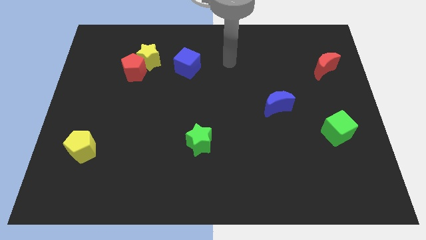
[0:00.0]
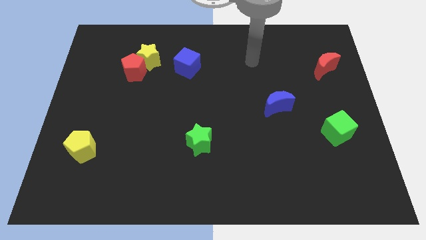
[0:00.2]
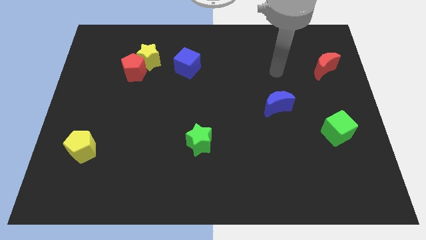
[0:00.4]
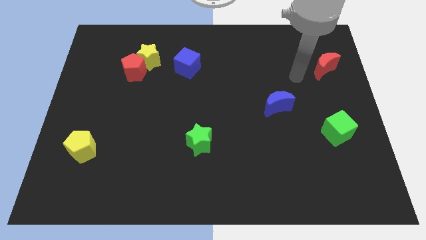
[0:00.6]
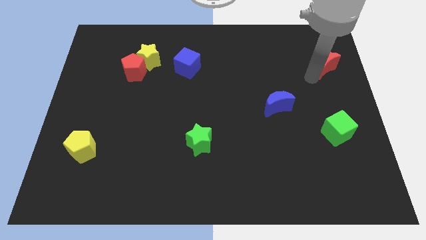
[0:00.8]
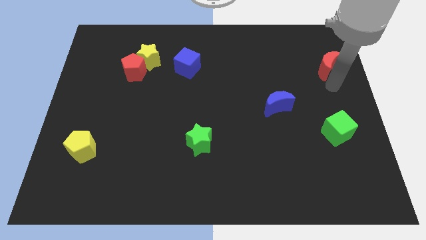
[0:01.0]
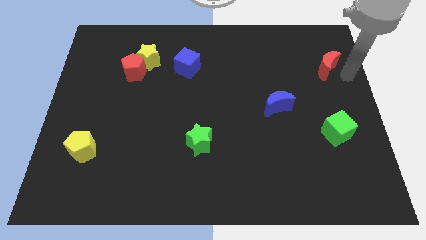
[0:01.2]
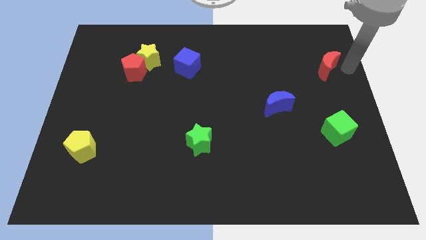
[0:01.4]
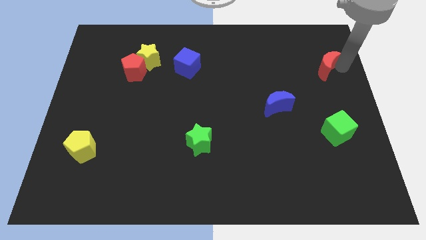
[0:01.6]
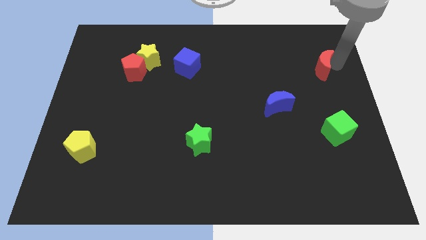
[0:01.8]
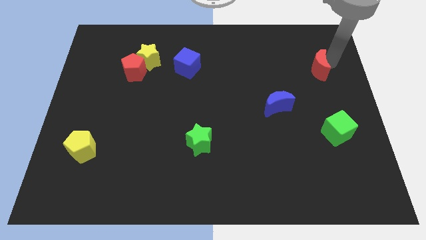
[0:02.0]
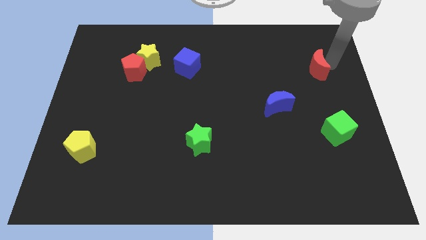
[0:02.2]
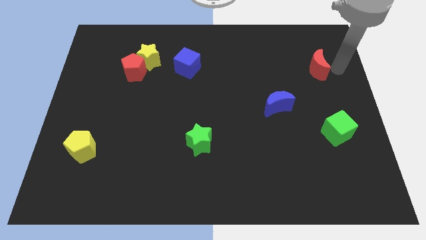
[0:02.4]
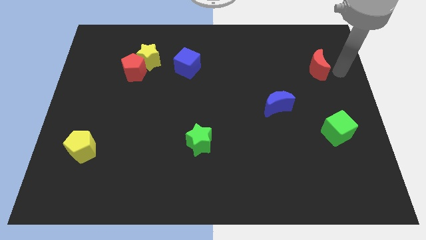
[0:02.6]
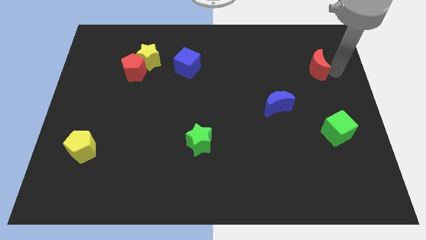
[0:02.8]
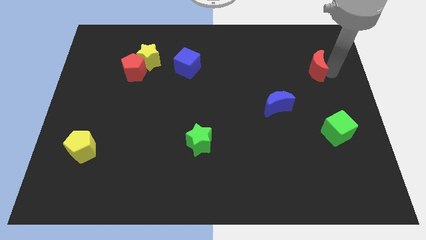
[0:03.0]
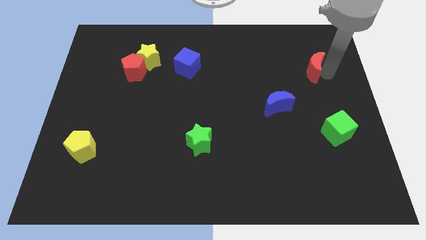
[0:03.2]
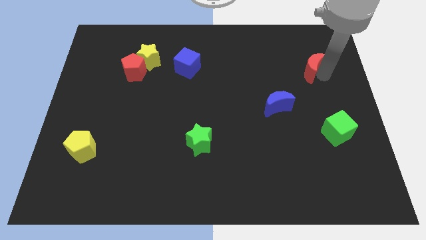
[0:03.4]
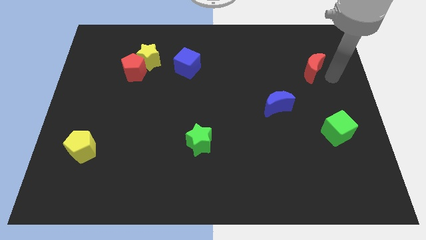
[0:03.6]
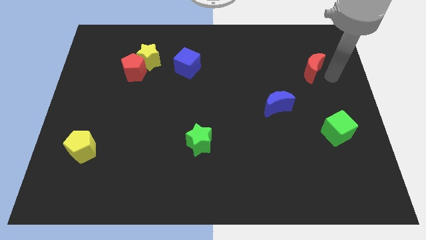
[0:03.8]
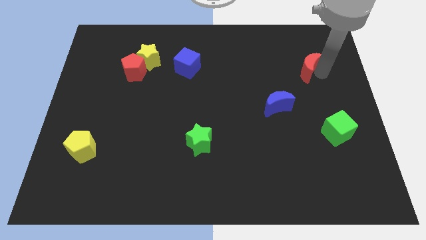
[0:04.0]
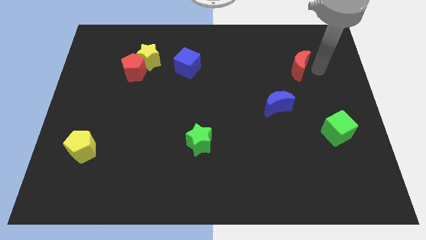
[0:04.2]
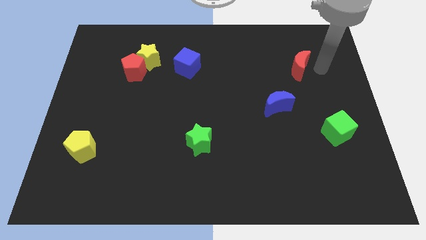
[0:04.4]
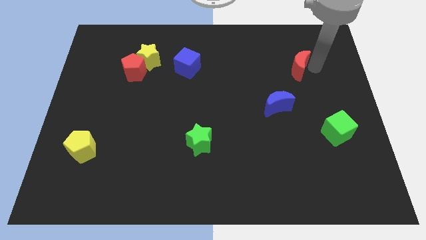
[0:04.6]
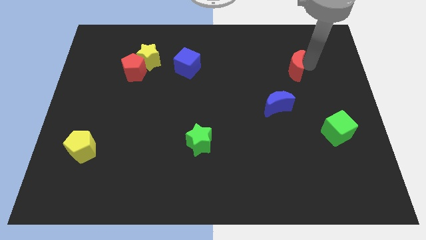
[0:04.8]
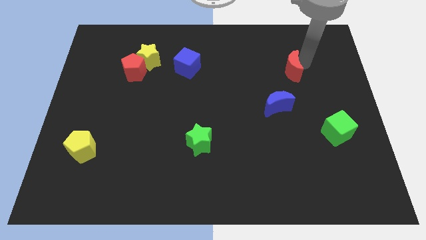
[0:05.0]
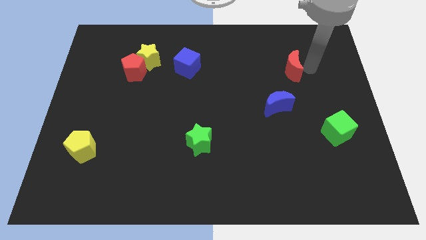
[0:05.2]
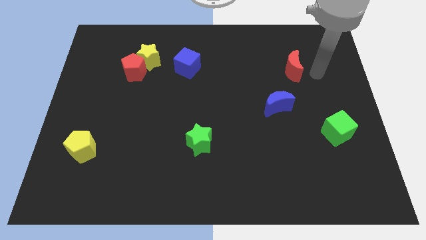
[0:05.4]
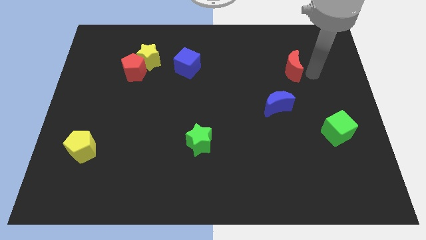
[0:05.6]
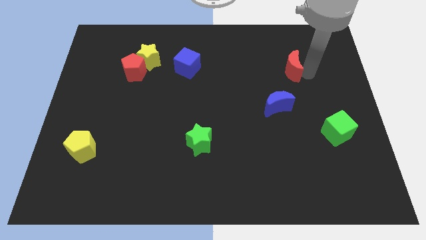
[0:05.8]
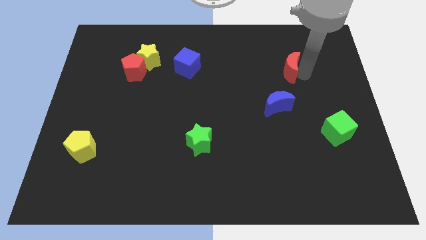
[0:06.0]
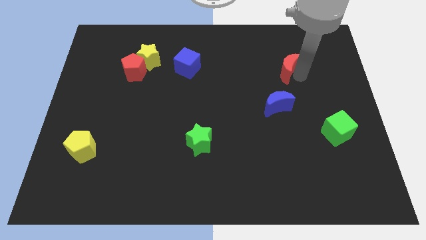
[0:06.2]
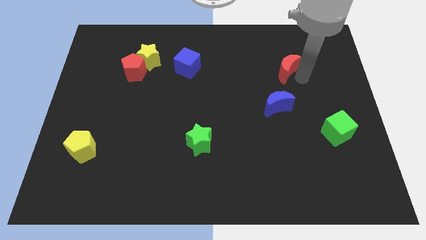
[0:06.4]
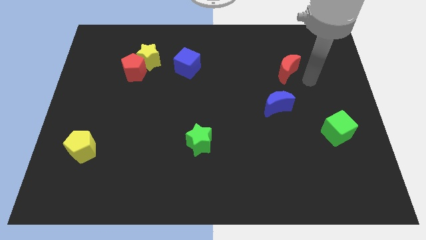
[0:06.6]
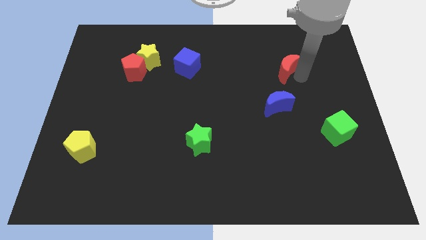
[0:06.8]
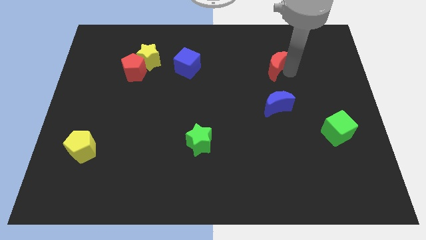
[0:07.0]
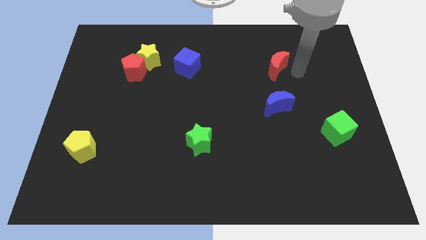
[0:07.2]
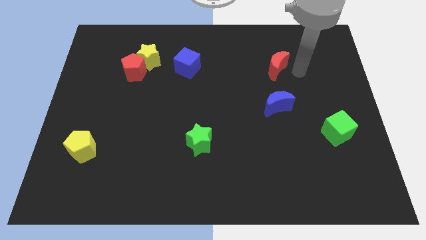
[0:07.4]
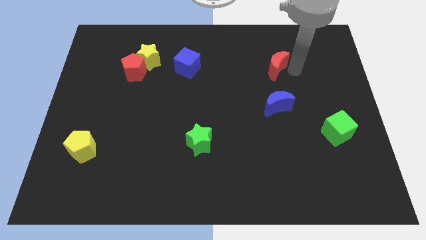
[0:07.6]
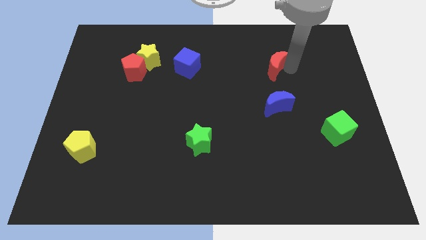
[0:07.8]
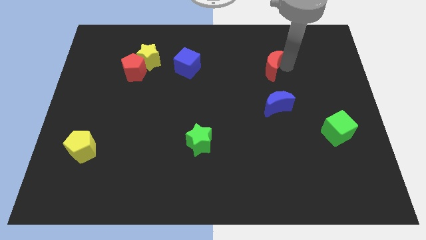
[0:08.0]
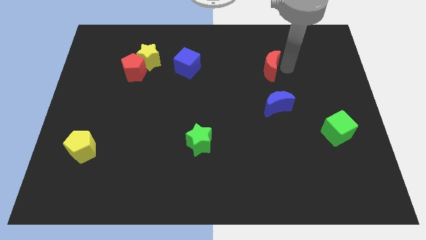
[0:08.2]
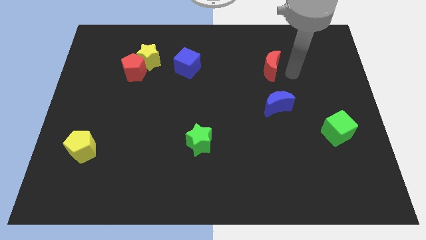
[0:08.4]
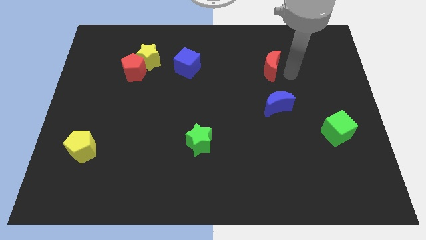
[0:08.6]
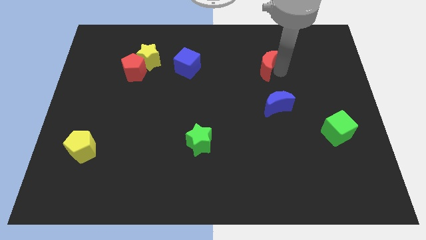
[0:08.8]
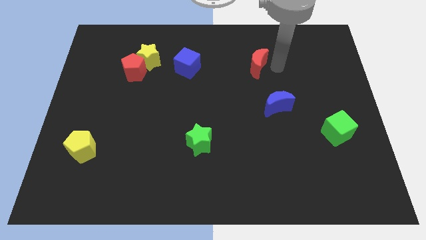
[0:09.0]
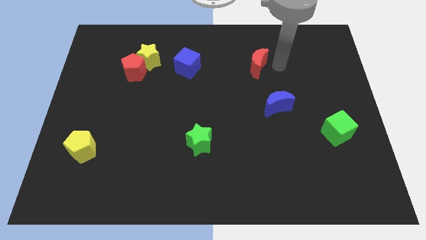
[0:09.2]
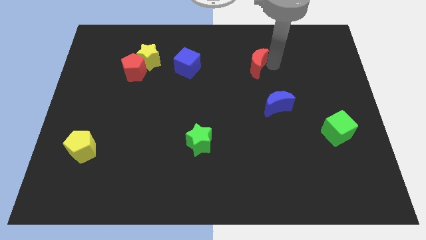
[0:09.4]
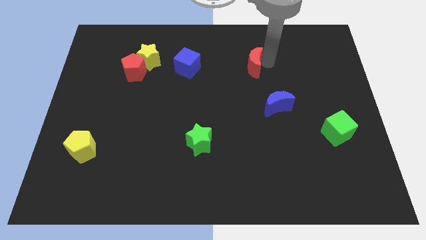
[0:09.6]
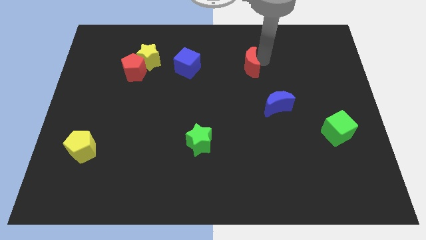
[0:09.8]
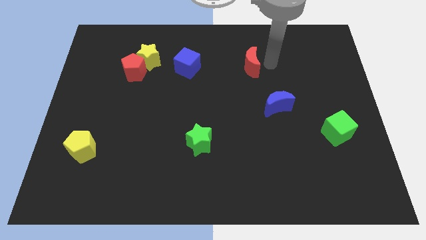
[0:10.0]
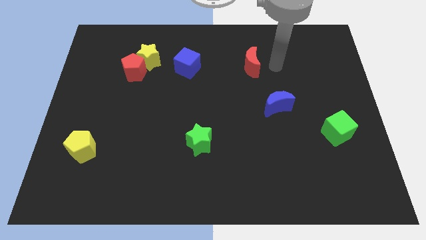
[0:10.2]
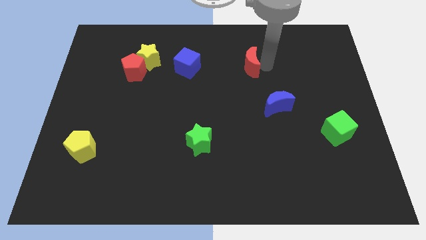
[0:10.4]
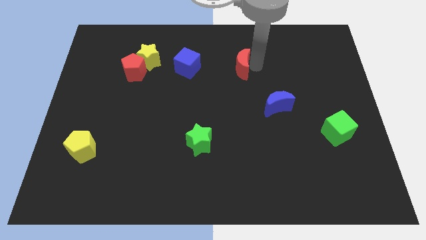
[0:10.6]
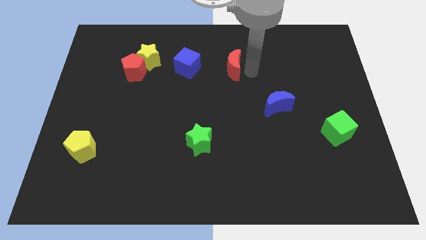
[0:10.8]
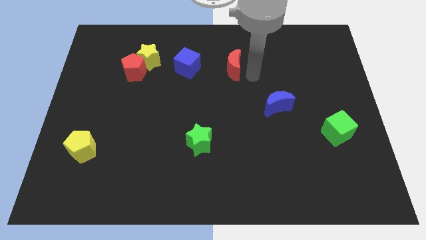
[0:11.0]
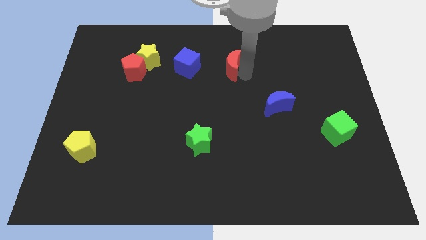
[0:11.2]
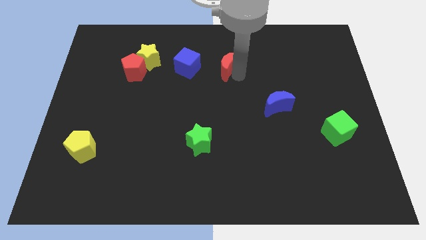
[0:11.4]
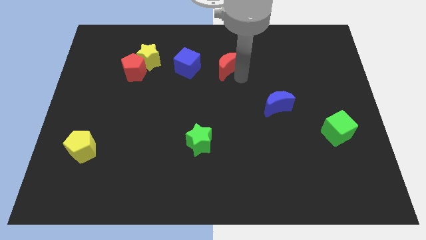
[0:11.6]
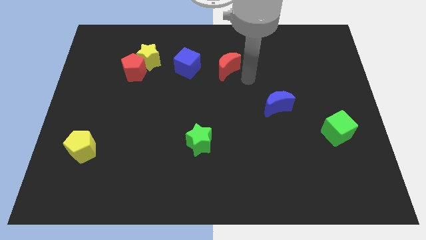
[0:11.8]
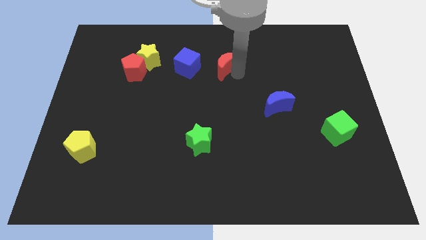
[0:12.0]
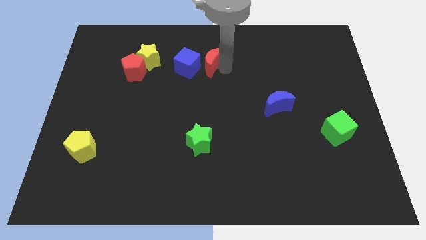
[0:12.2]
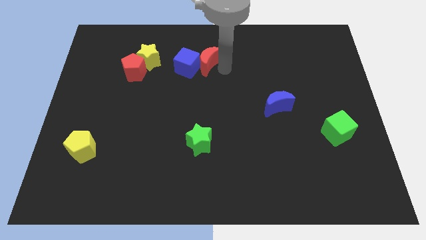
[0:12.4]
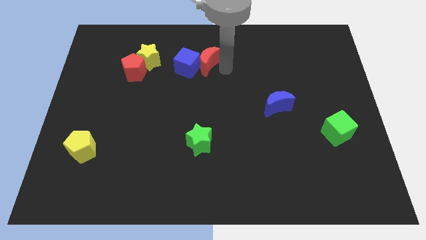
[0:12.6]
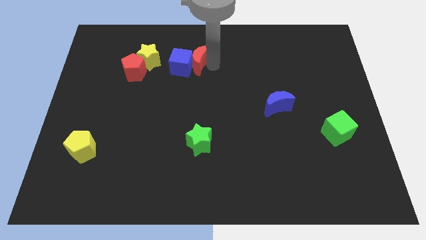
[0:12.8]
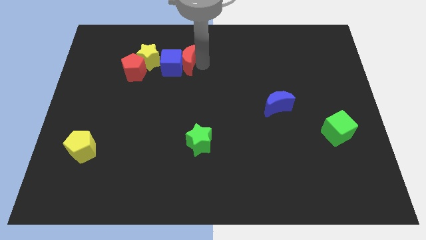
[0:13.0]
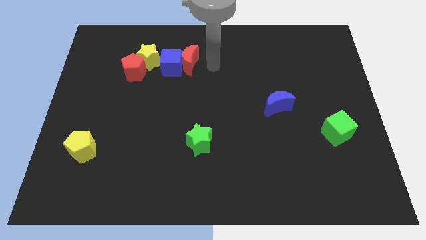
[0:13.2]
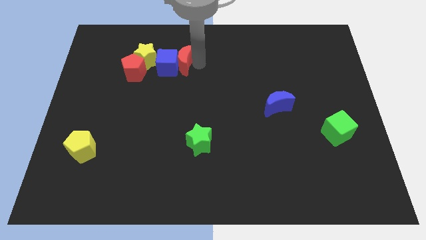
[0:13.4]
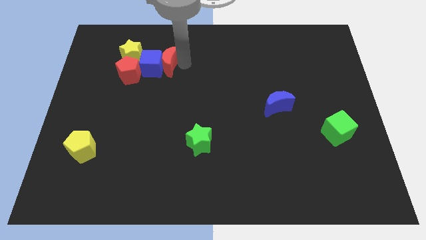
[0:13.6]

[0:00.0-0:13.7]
move the red moon to the top right side of the red pentagon
